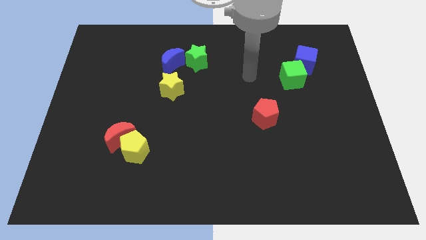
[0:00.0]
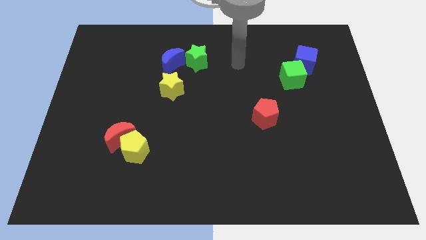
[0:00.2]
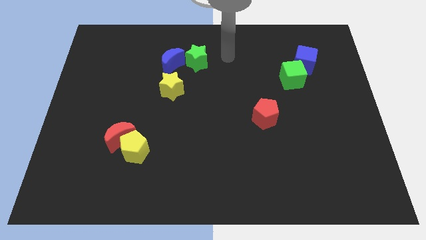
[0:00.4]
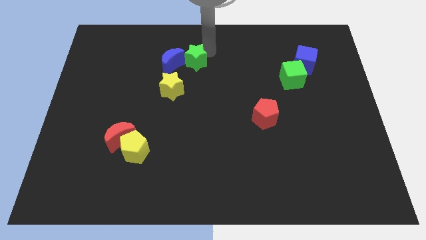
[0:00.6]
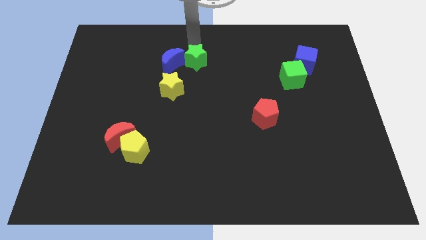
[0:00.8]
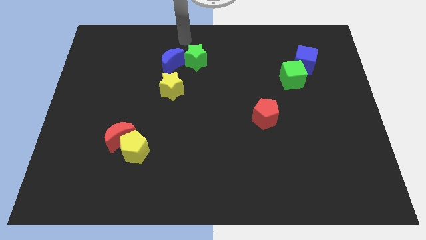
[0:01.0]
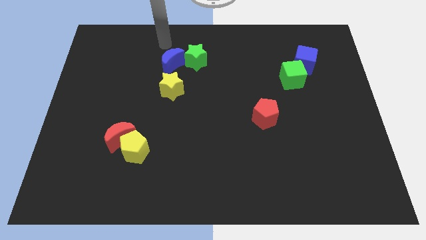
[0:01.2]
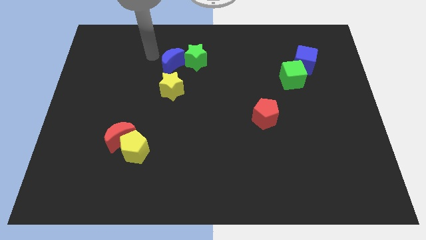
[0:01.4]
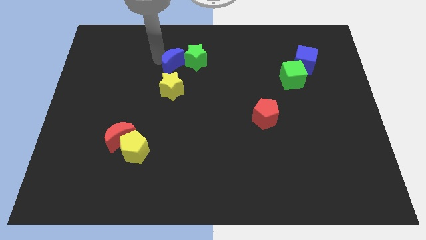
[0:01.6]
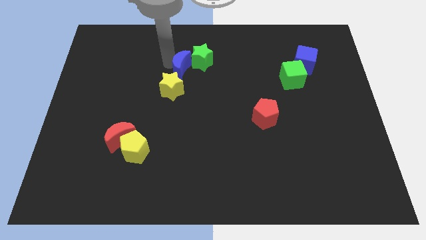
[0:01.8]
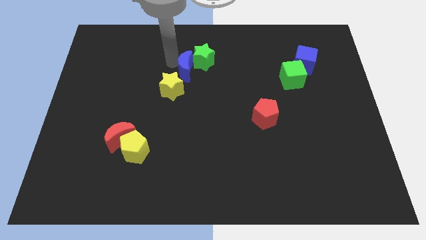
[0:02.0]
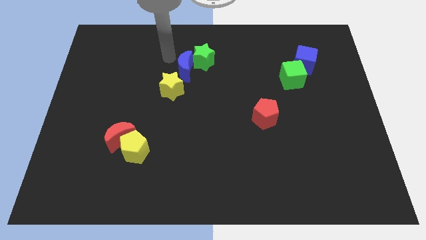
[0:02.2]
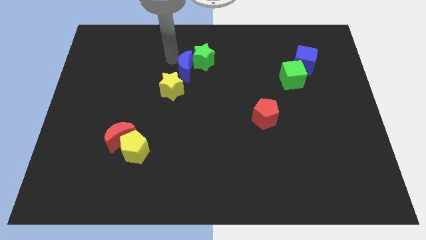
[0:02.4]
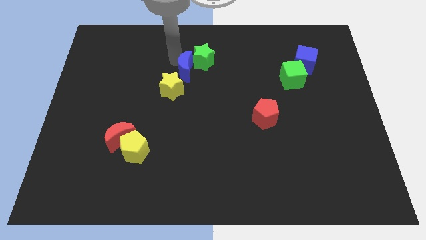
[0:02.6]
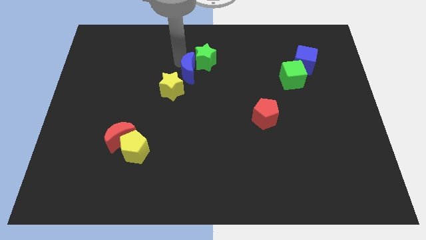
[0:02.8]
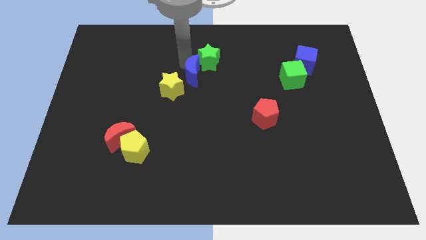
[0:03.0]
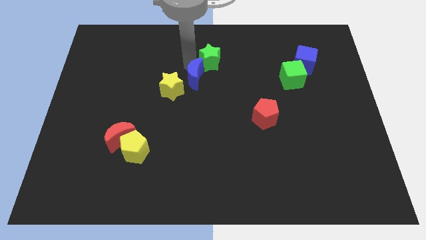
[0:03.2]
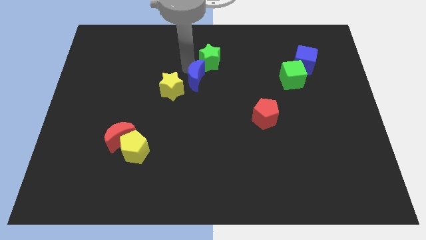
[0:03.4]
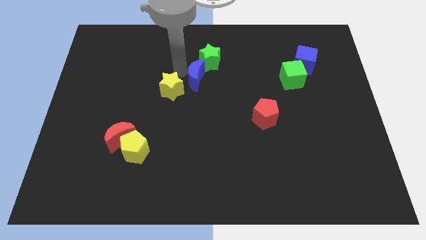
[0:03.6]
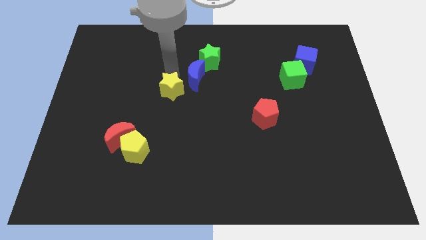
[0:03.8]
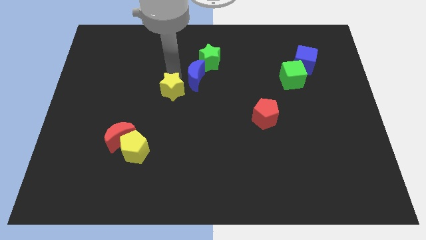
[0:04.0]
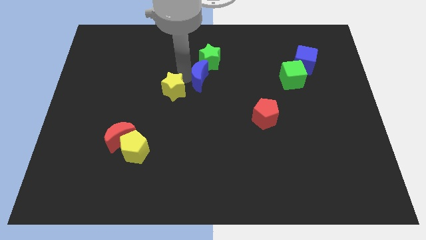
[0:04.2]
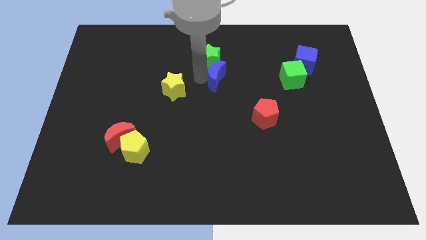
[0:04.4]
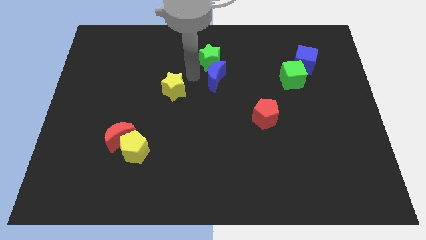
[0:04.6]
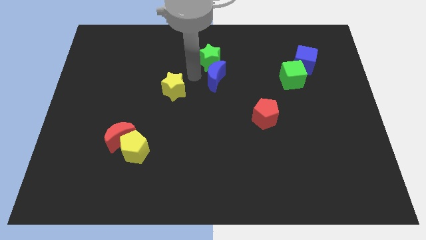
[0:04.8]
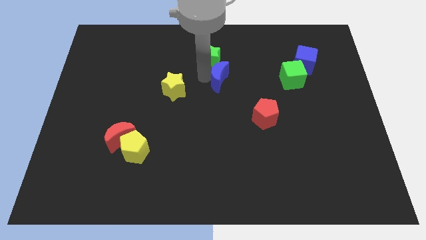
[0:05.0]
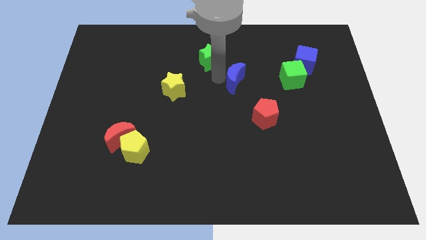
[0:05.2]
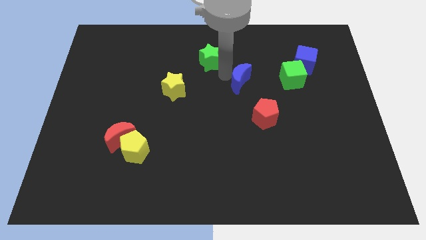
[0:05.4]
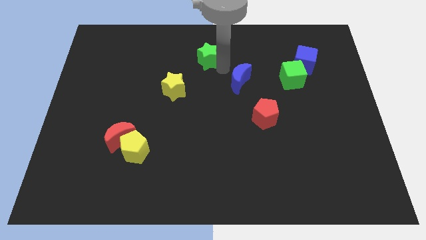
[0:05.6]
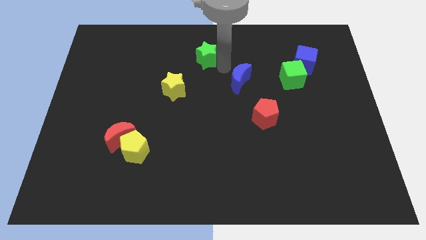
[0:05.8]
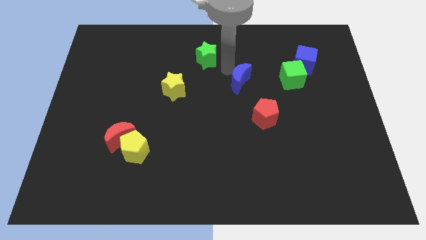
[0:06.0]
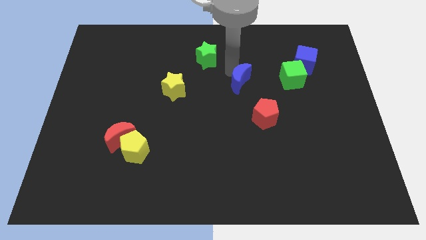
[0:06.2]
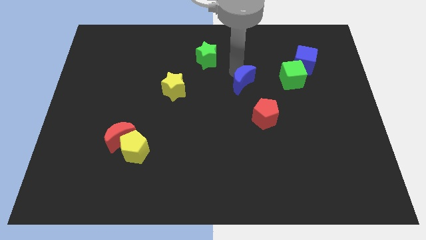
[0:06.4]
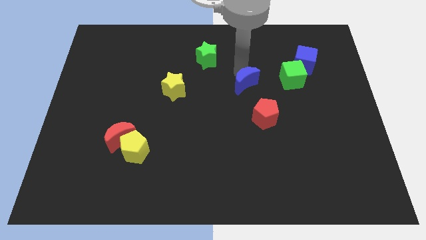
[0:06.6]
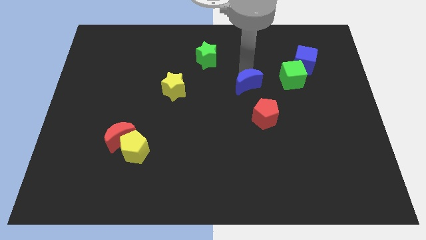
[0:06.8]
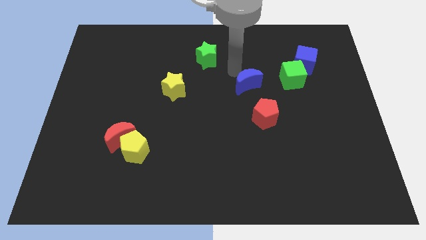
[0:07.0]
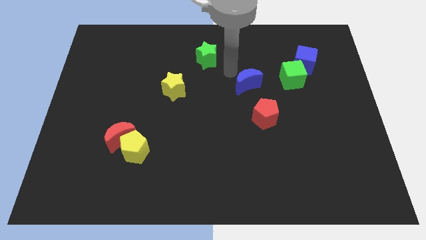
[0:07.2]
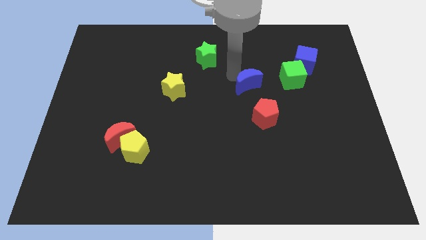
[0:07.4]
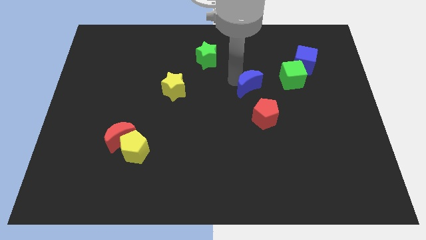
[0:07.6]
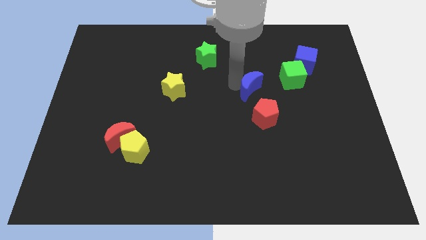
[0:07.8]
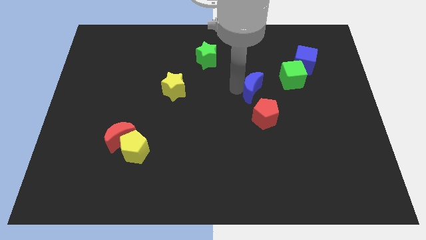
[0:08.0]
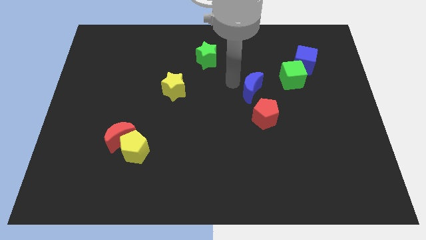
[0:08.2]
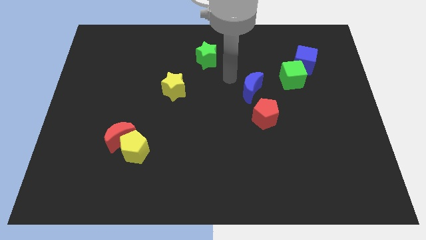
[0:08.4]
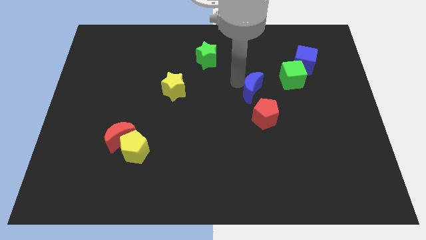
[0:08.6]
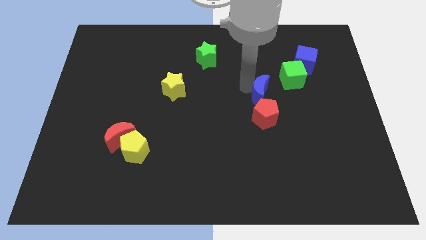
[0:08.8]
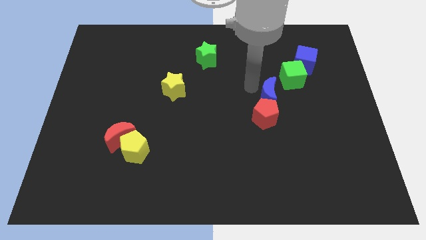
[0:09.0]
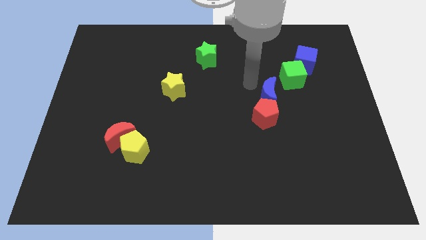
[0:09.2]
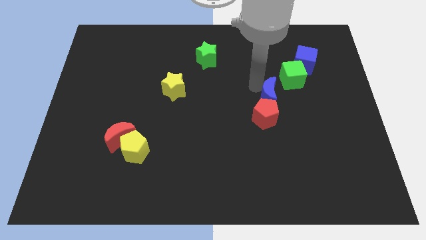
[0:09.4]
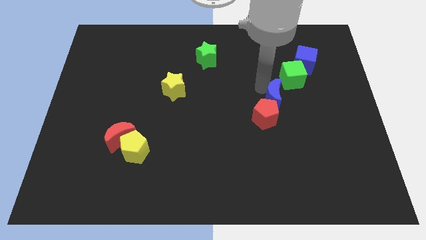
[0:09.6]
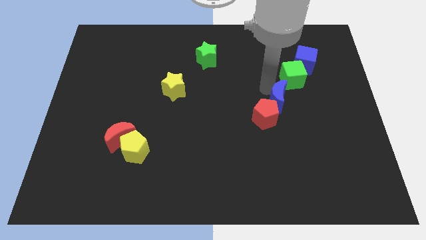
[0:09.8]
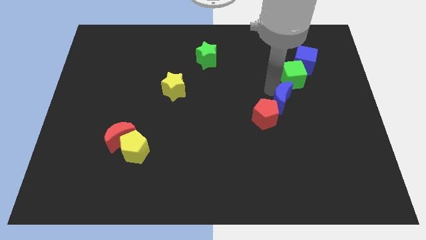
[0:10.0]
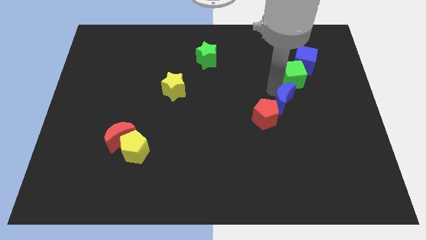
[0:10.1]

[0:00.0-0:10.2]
put the blue moon to the right of the red pentagon

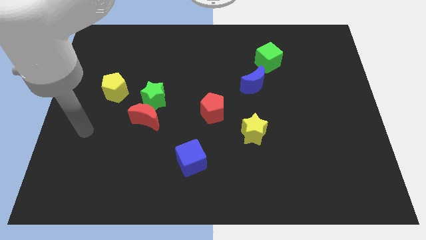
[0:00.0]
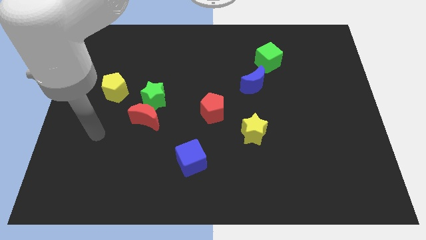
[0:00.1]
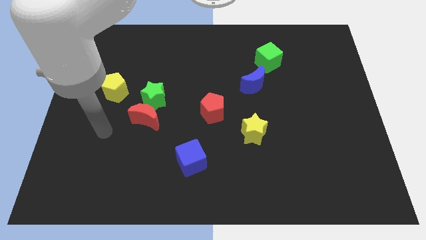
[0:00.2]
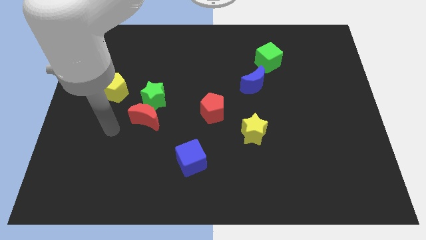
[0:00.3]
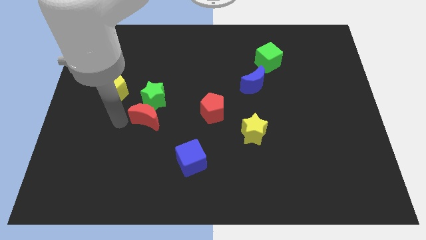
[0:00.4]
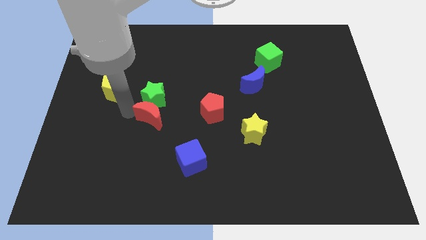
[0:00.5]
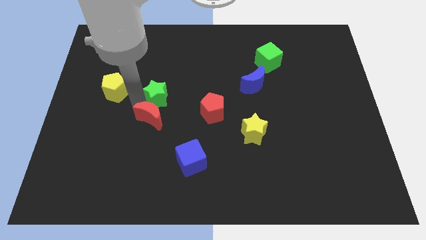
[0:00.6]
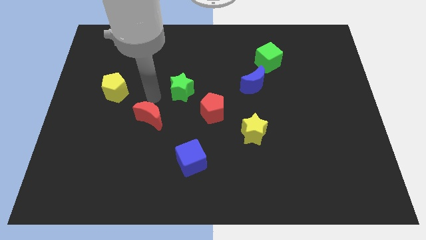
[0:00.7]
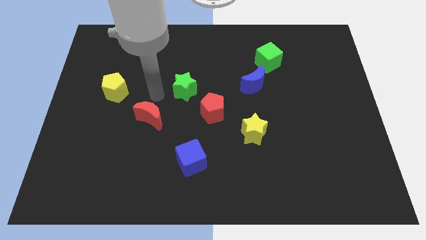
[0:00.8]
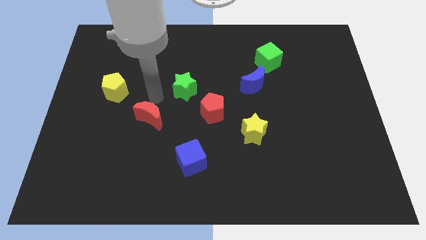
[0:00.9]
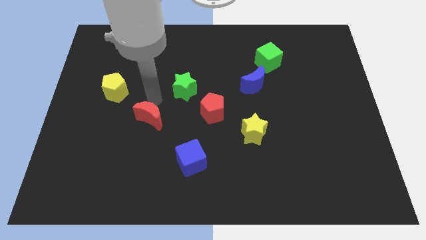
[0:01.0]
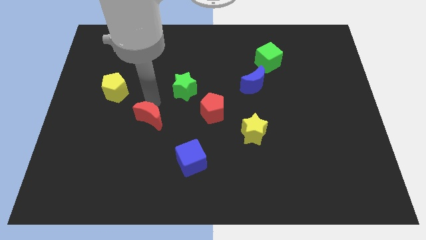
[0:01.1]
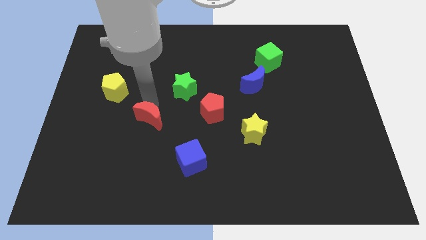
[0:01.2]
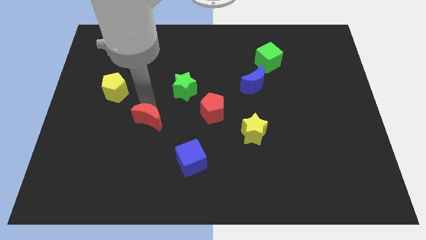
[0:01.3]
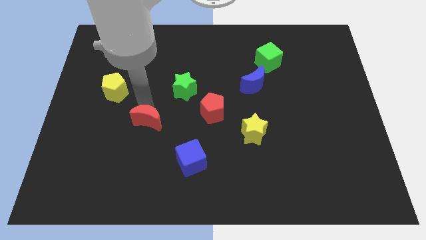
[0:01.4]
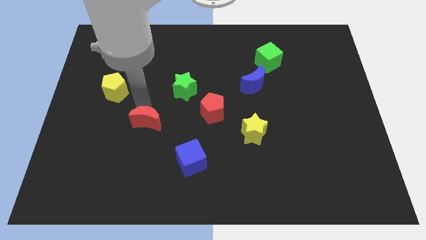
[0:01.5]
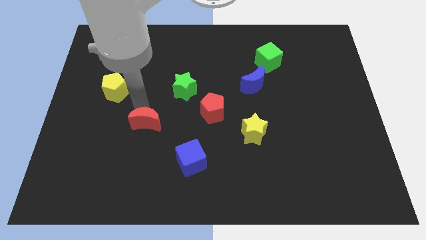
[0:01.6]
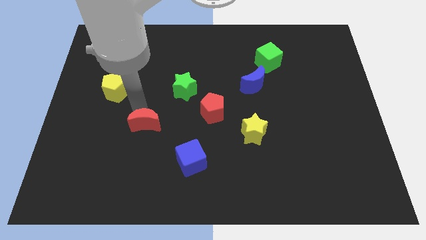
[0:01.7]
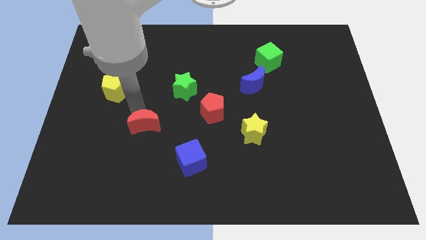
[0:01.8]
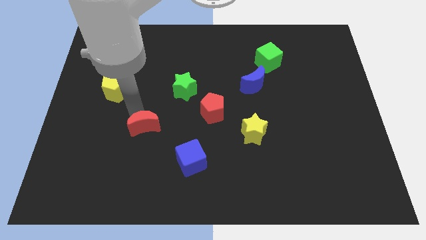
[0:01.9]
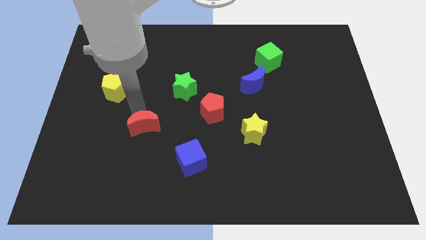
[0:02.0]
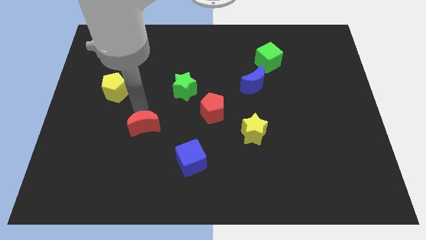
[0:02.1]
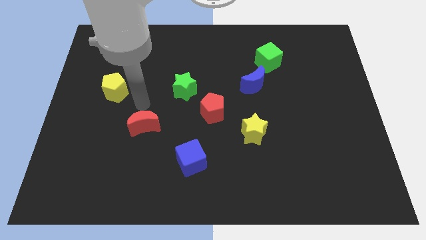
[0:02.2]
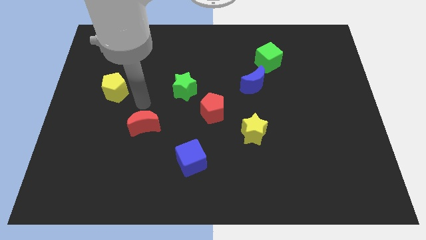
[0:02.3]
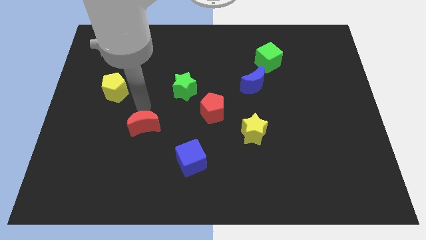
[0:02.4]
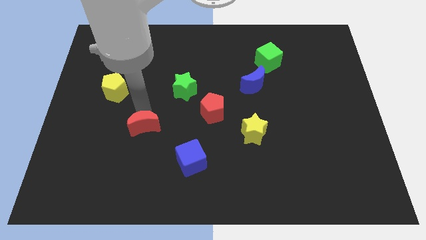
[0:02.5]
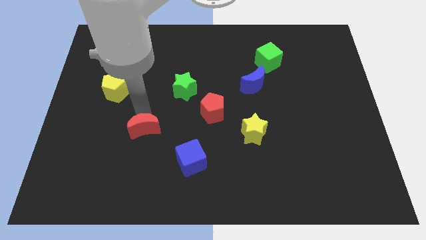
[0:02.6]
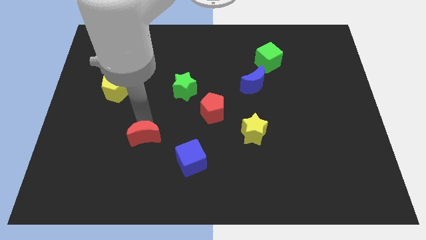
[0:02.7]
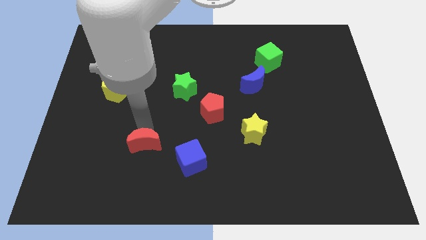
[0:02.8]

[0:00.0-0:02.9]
put the red moon left of the blue cube
